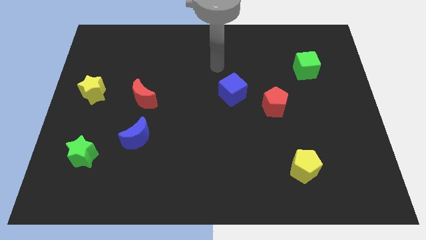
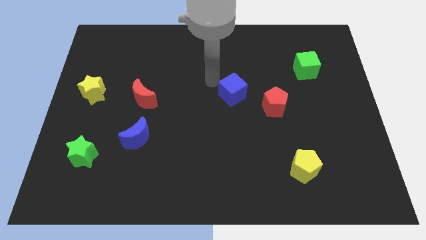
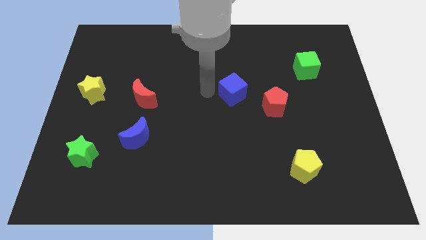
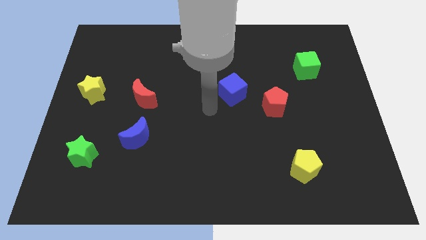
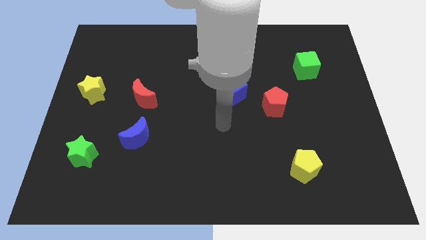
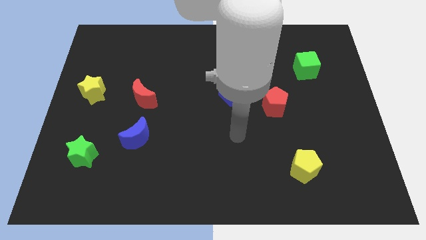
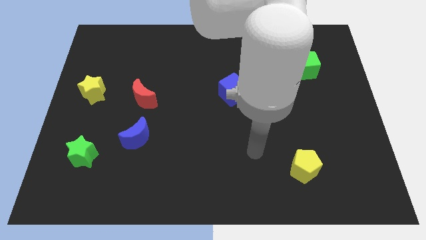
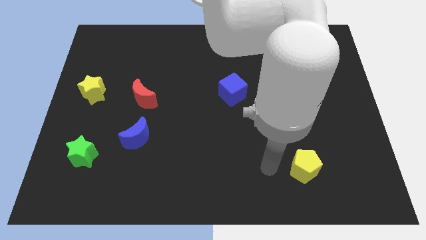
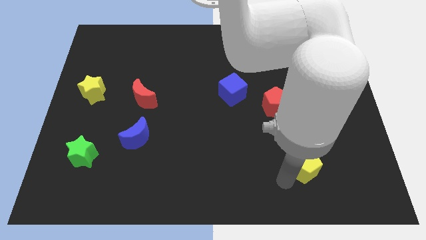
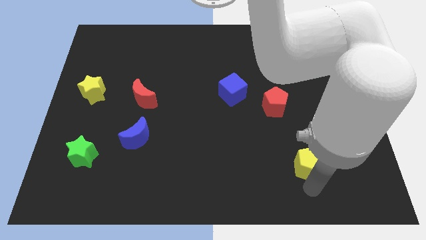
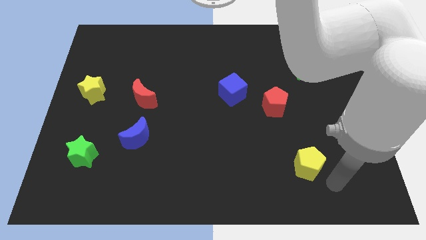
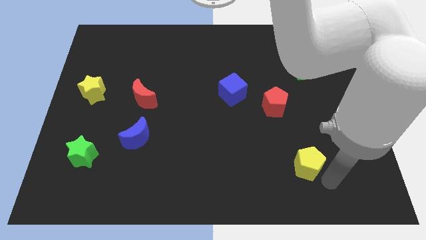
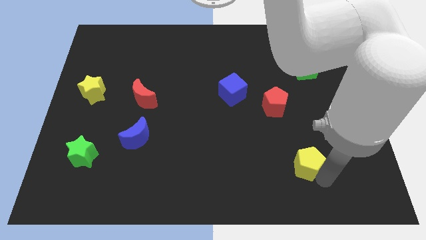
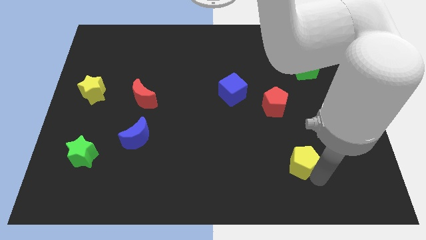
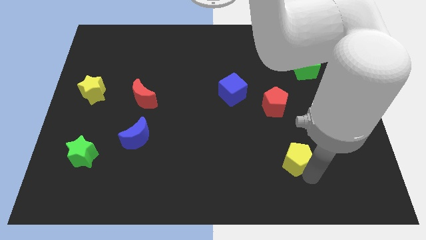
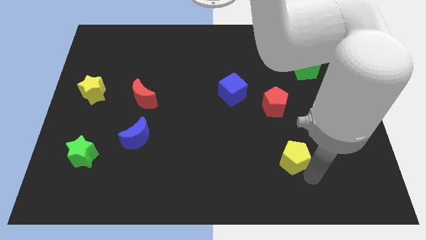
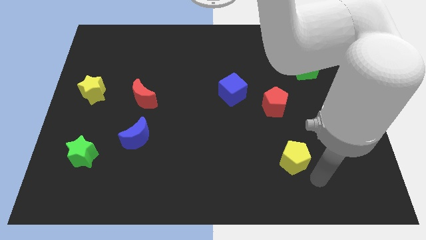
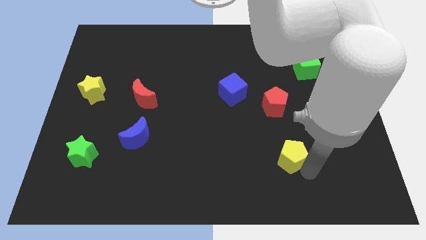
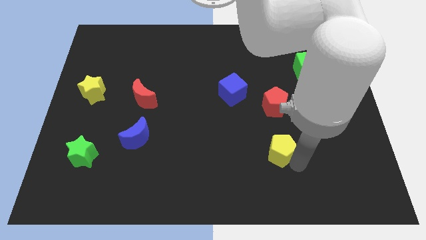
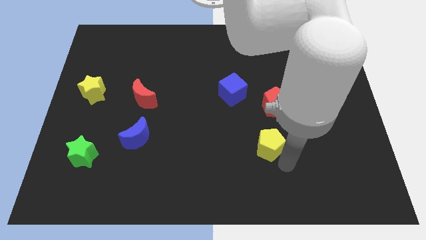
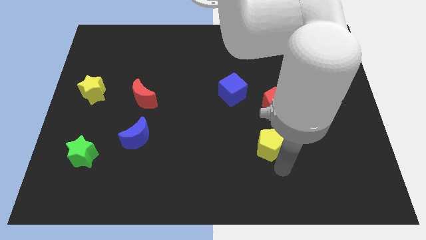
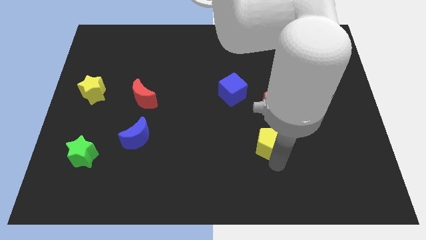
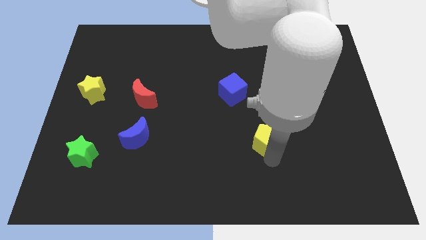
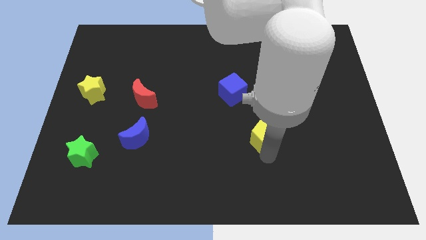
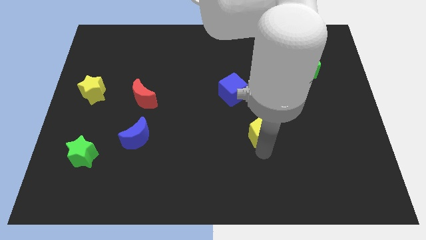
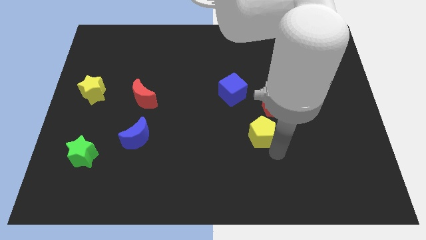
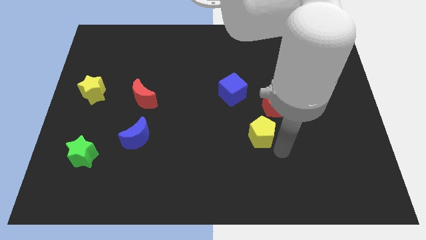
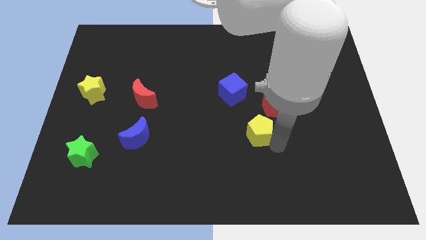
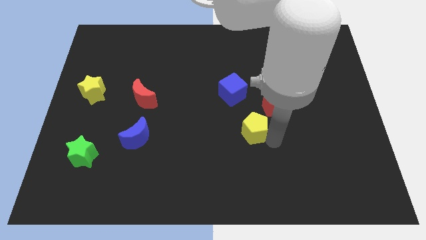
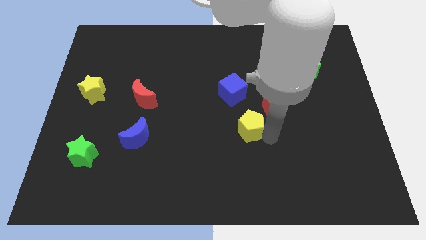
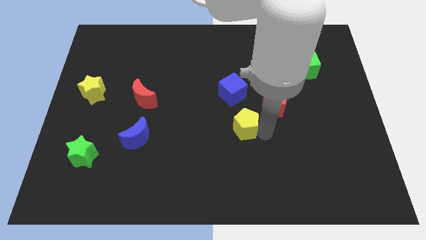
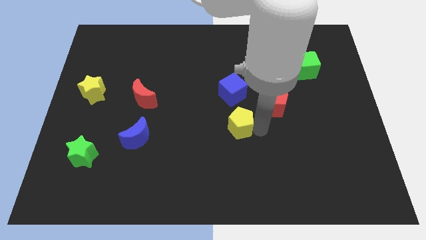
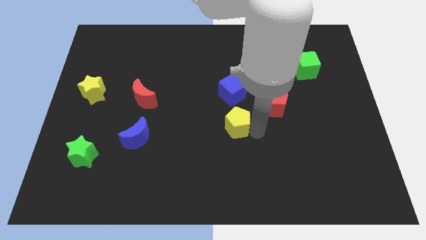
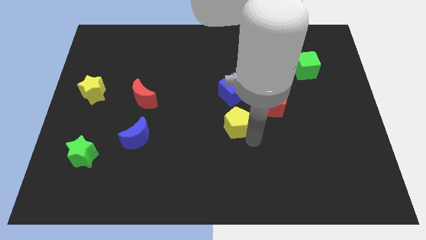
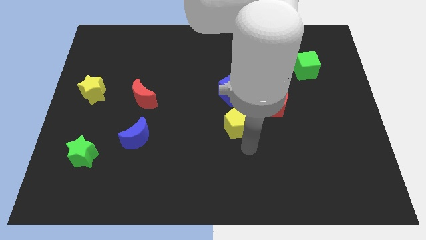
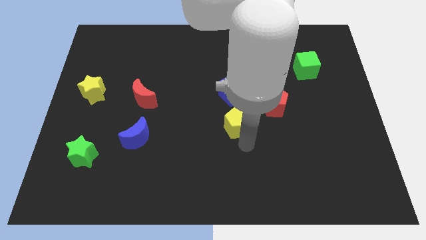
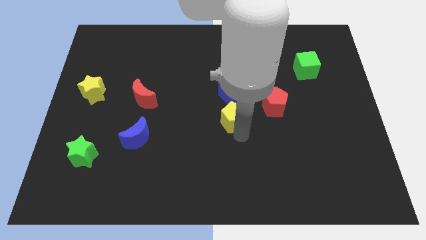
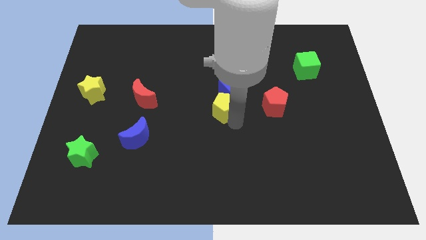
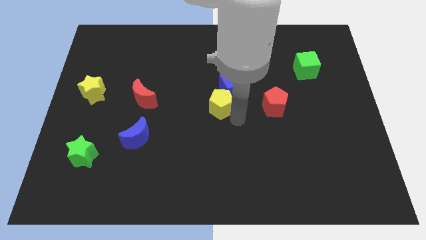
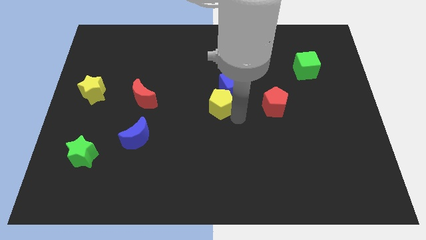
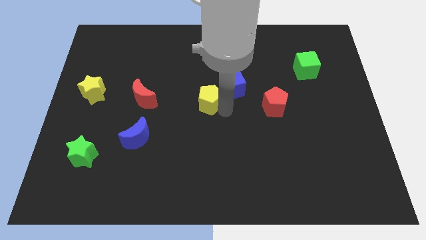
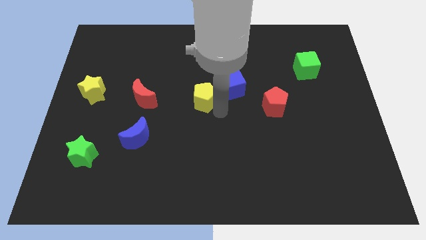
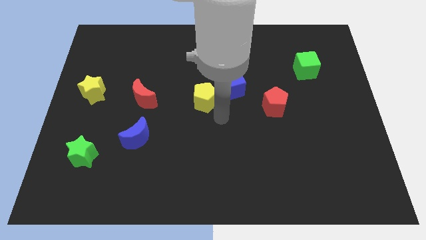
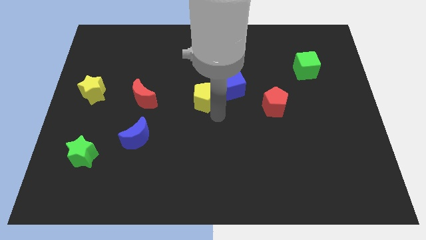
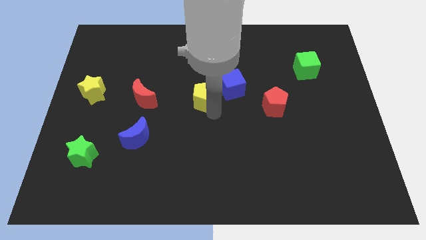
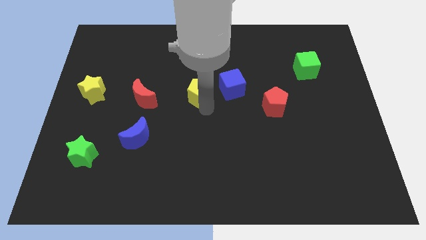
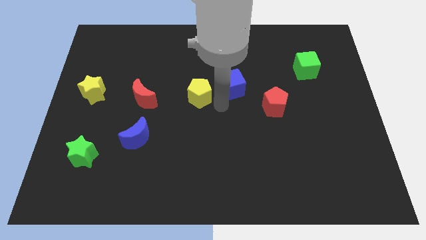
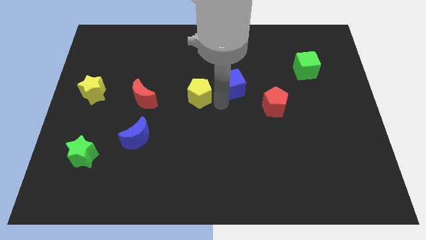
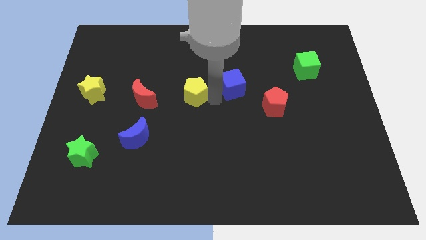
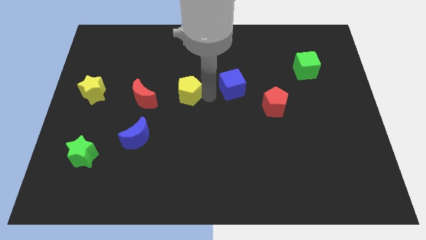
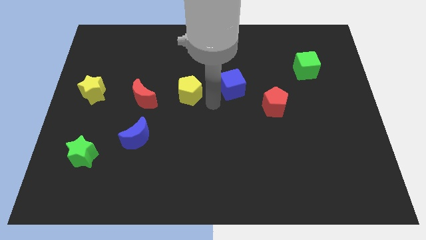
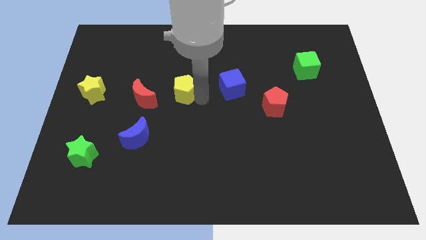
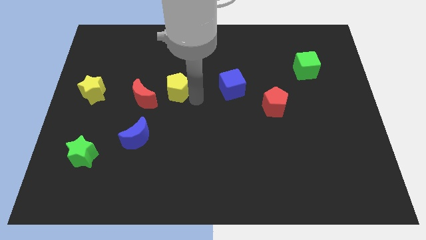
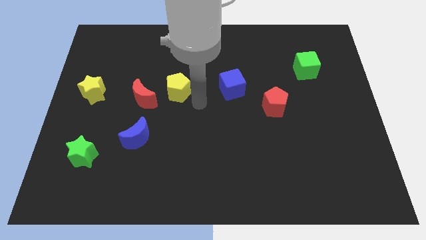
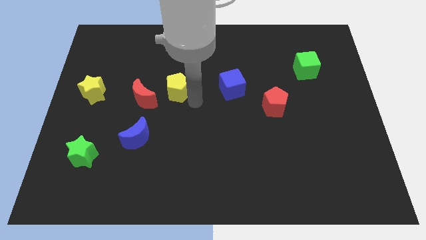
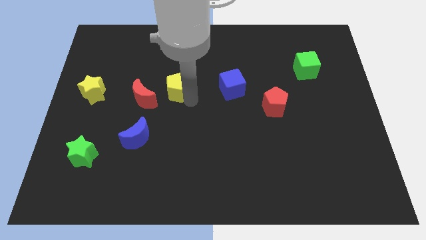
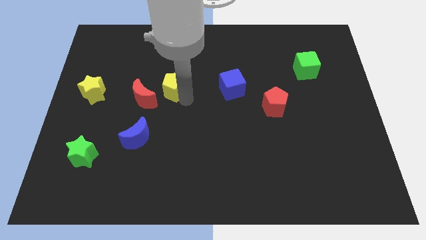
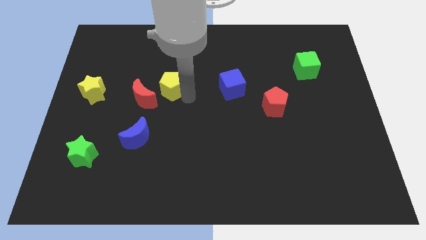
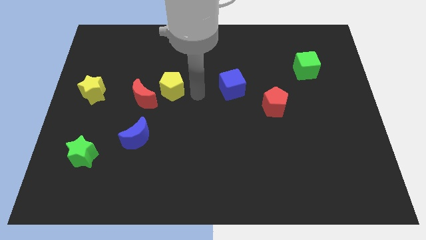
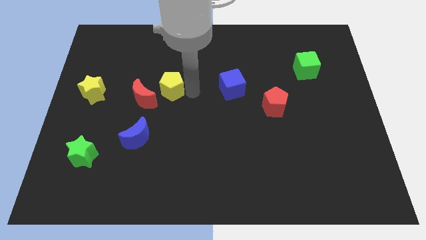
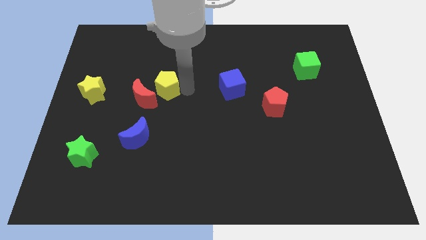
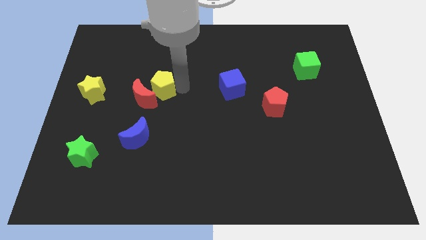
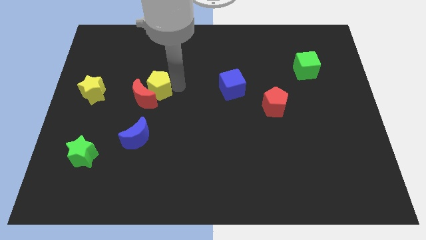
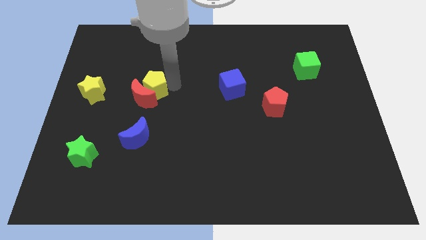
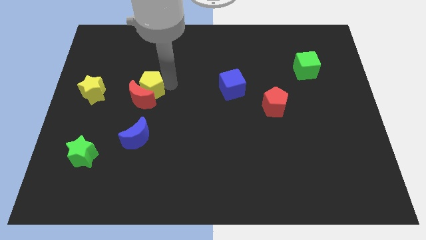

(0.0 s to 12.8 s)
slide the yellow pentagon diagonally up and to the left of the red moon
